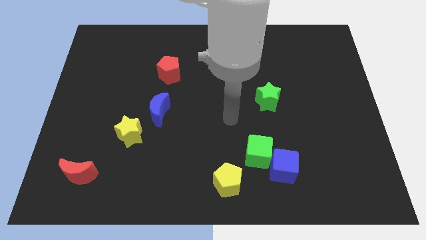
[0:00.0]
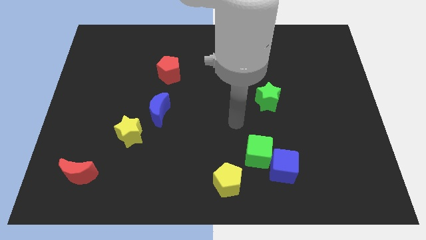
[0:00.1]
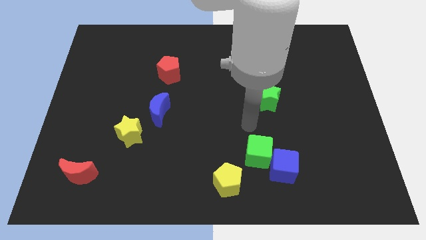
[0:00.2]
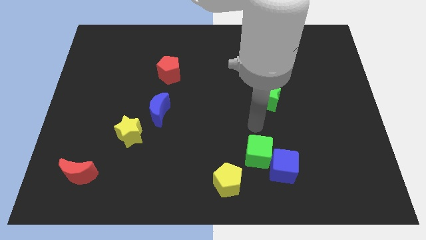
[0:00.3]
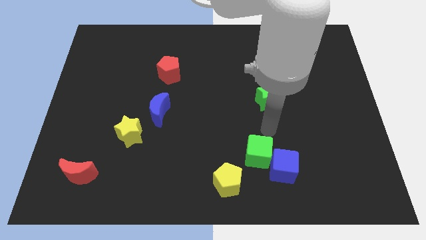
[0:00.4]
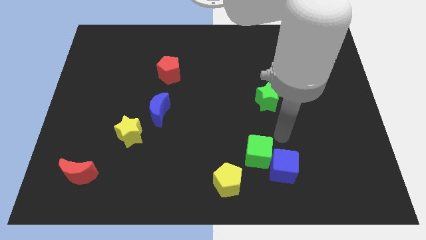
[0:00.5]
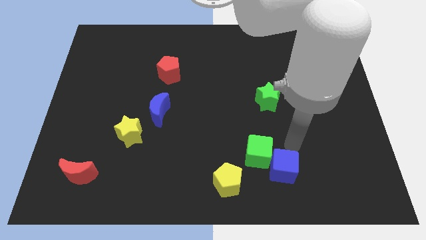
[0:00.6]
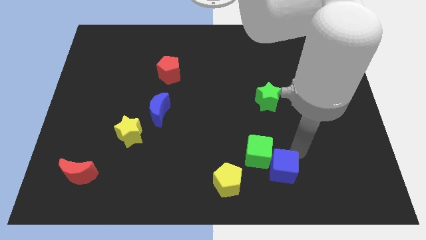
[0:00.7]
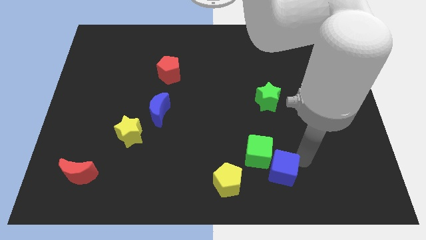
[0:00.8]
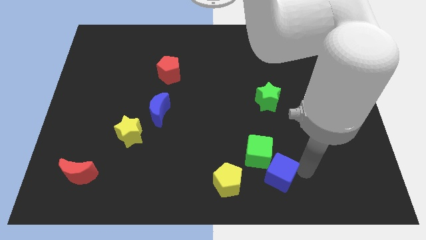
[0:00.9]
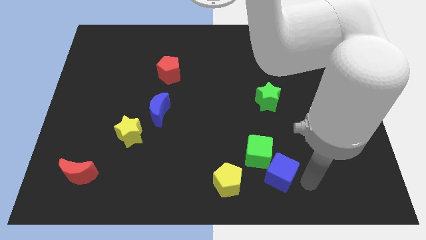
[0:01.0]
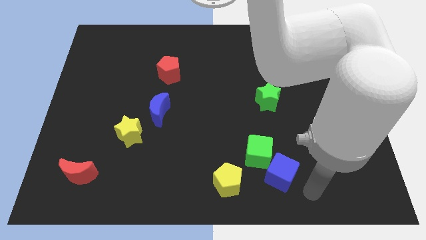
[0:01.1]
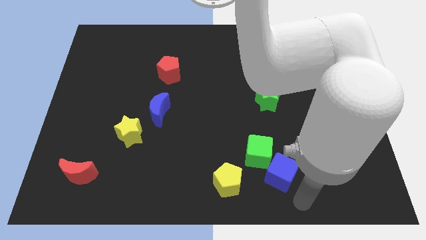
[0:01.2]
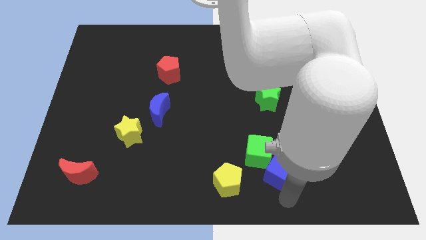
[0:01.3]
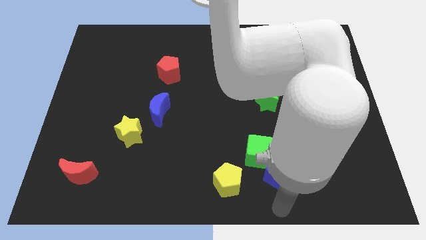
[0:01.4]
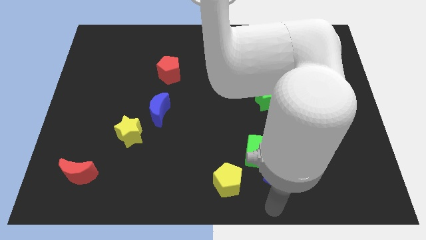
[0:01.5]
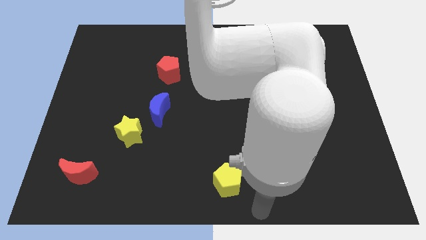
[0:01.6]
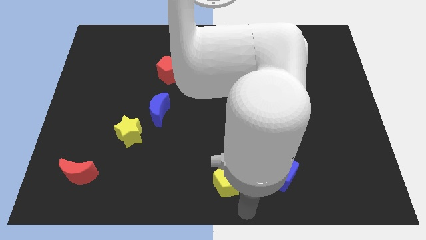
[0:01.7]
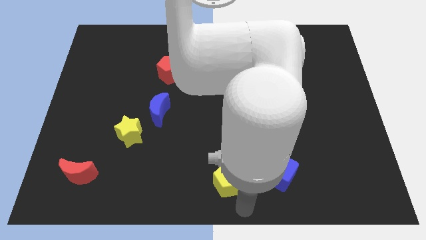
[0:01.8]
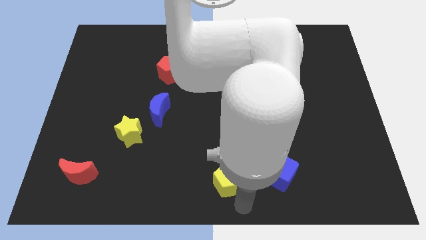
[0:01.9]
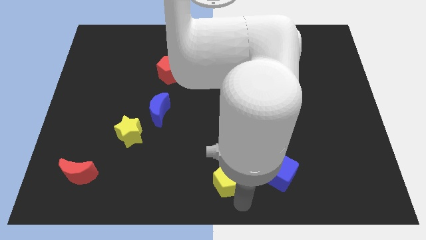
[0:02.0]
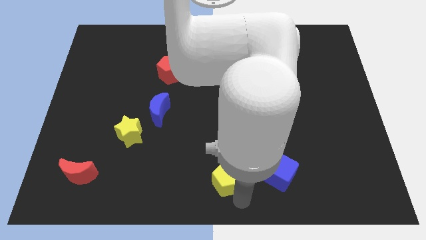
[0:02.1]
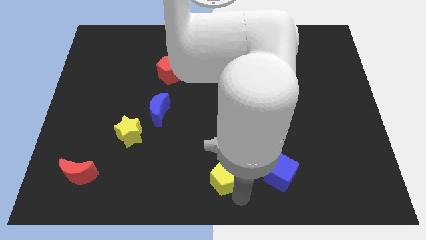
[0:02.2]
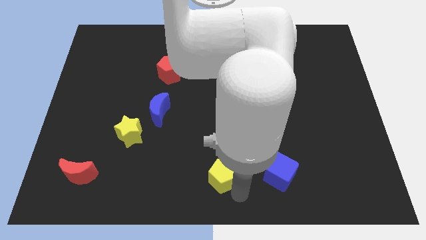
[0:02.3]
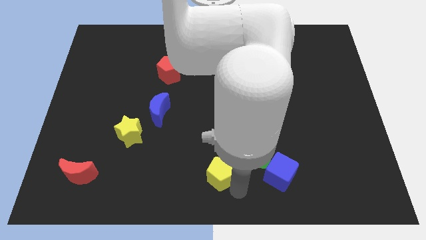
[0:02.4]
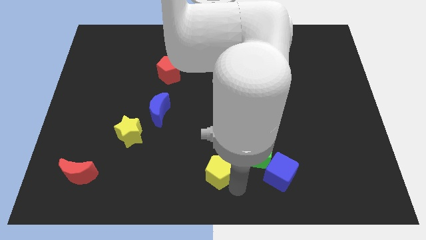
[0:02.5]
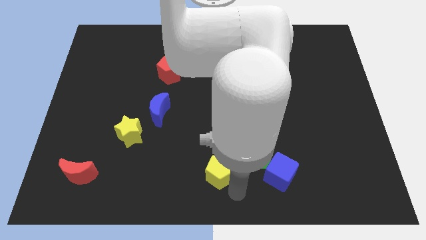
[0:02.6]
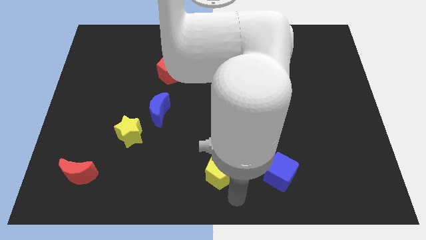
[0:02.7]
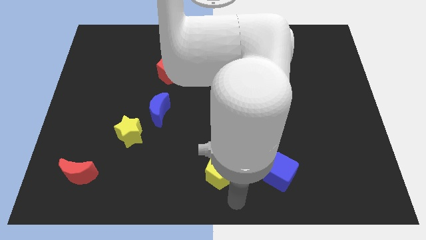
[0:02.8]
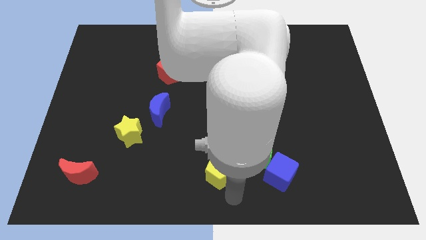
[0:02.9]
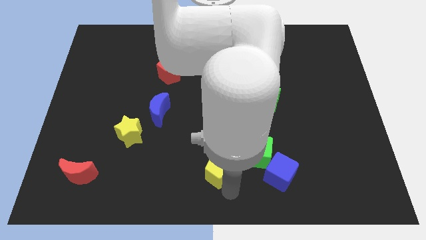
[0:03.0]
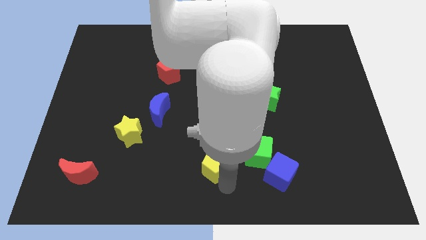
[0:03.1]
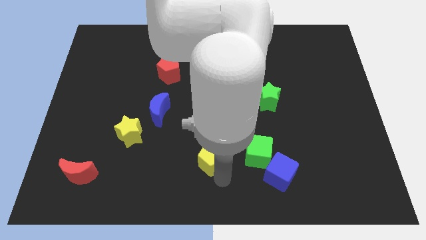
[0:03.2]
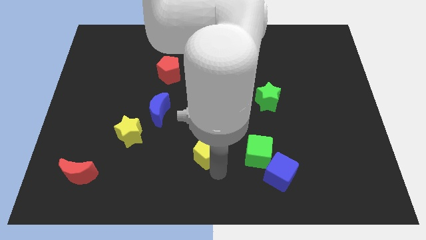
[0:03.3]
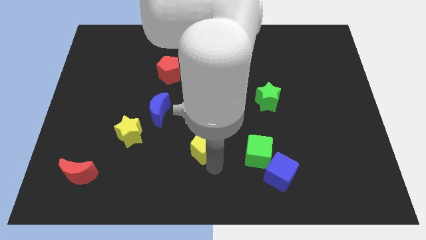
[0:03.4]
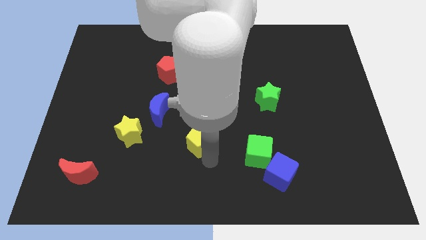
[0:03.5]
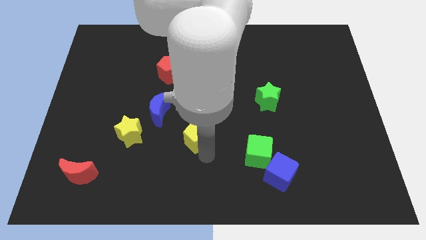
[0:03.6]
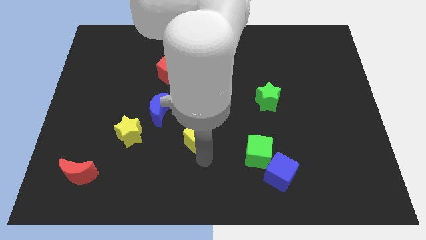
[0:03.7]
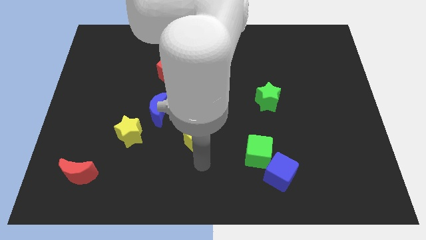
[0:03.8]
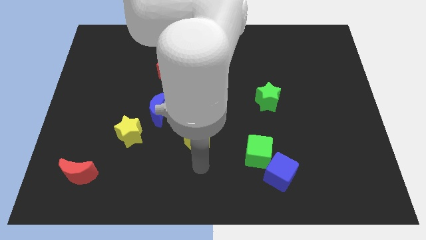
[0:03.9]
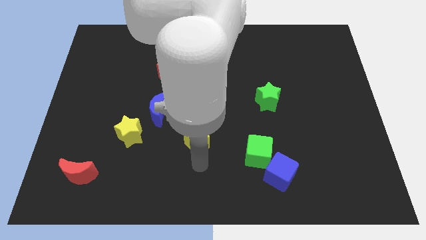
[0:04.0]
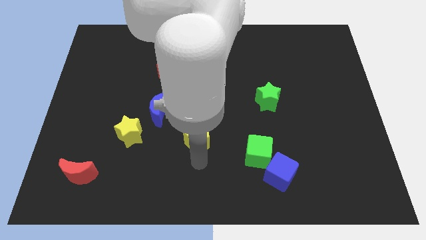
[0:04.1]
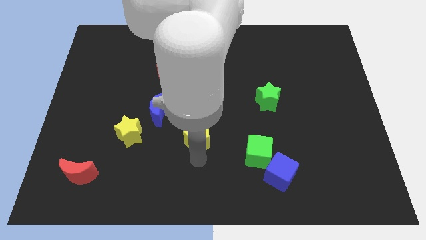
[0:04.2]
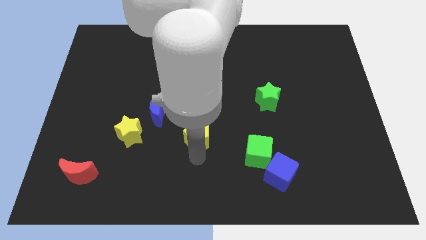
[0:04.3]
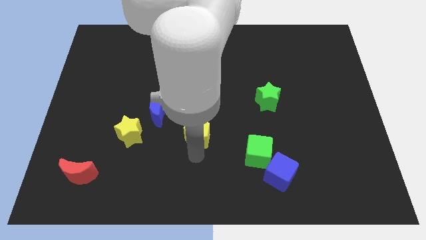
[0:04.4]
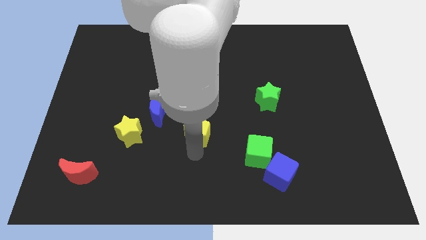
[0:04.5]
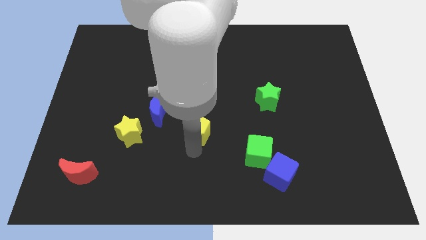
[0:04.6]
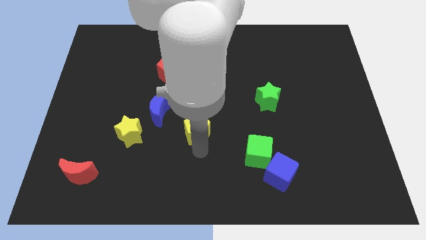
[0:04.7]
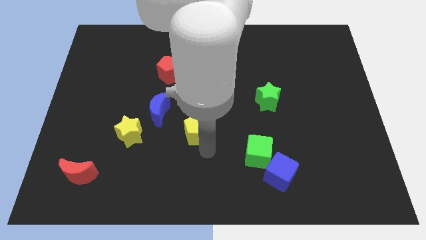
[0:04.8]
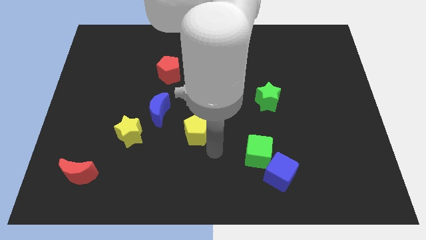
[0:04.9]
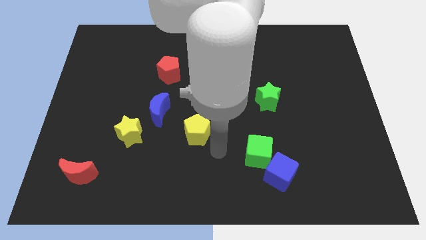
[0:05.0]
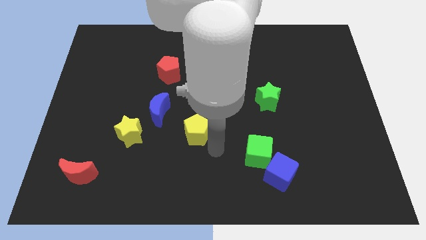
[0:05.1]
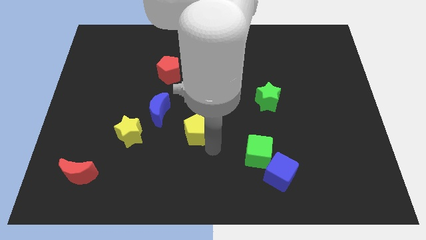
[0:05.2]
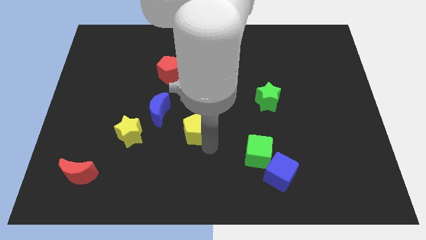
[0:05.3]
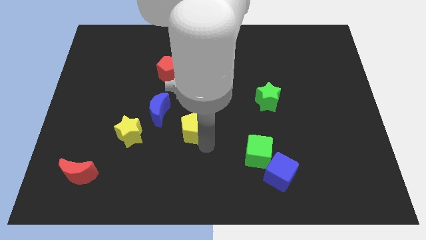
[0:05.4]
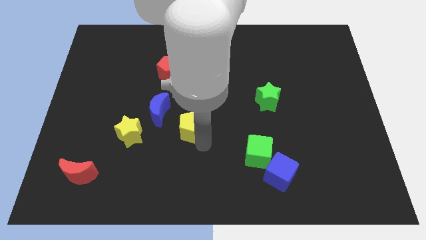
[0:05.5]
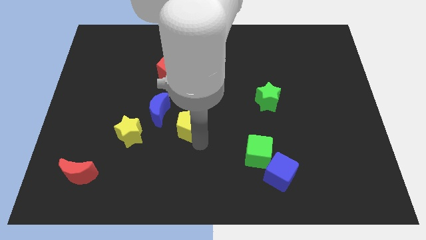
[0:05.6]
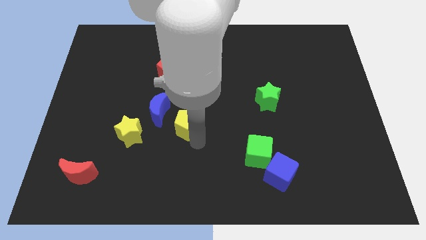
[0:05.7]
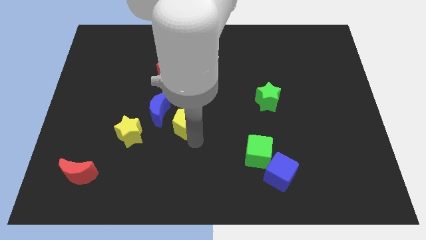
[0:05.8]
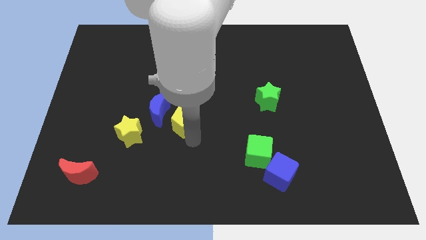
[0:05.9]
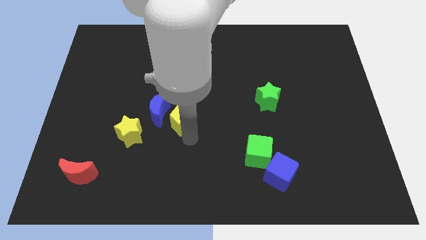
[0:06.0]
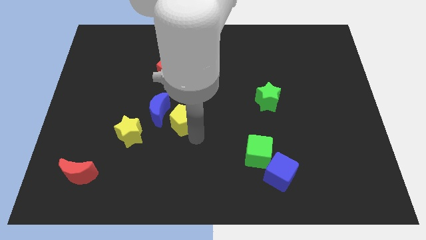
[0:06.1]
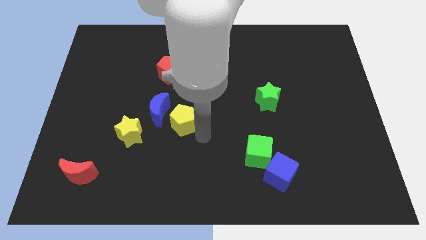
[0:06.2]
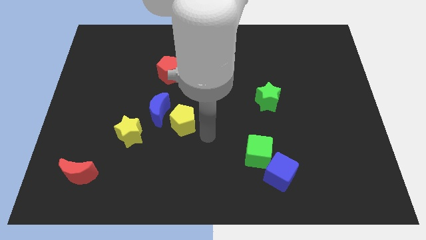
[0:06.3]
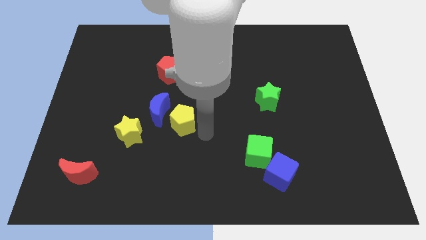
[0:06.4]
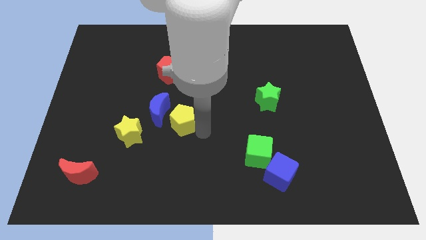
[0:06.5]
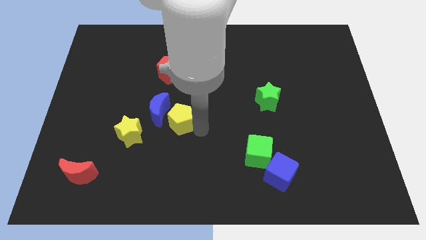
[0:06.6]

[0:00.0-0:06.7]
move the yellow pentagon towards the blue moon

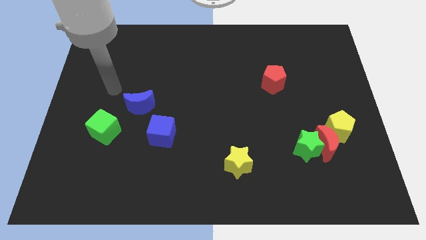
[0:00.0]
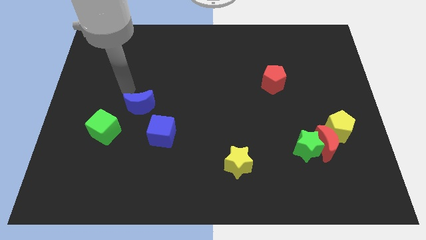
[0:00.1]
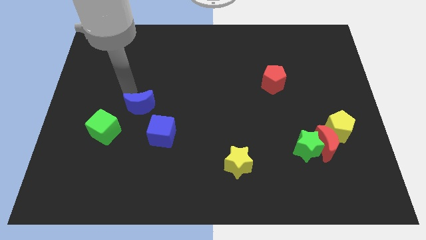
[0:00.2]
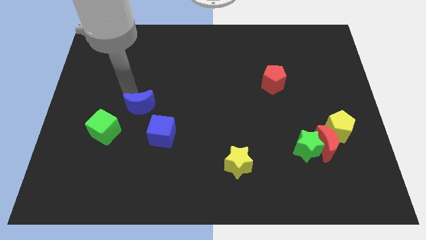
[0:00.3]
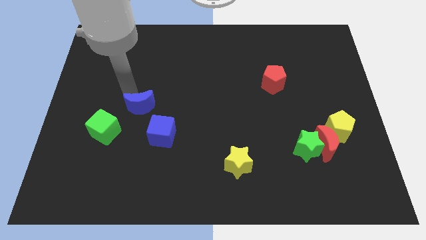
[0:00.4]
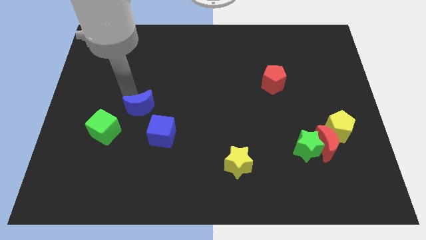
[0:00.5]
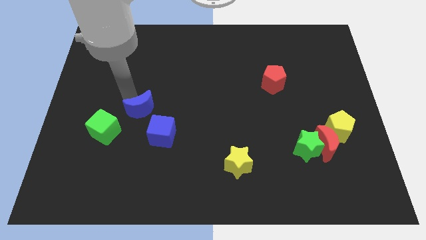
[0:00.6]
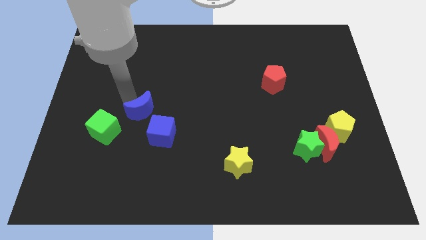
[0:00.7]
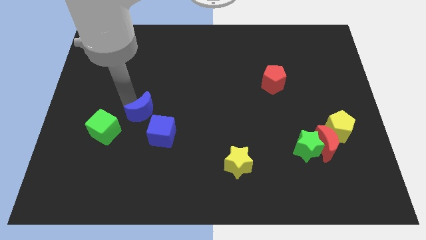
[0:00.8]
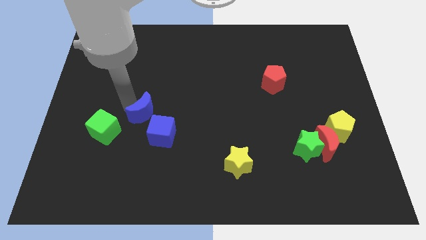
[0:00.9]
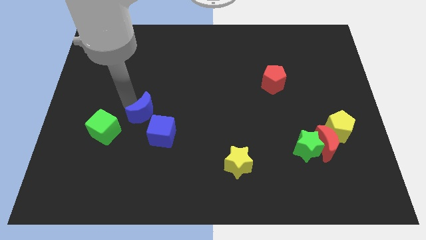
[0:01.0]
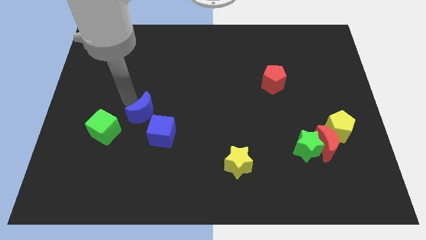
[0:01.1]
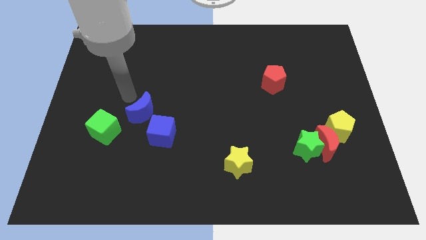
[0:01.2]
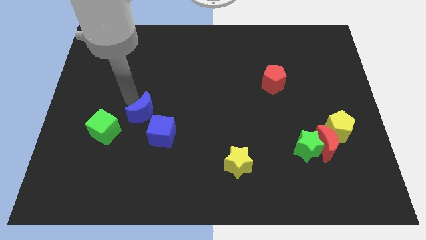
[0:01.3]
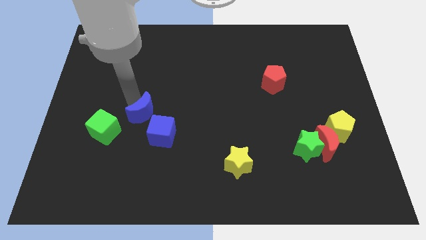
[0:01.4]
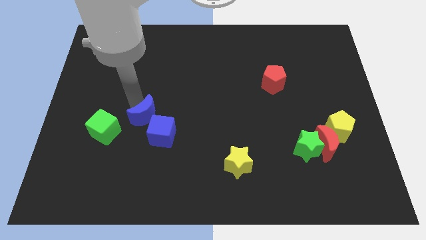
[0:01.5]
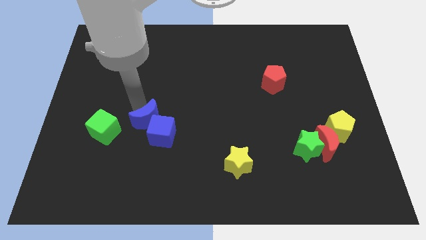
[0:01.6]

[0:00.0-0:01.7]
push the blue moon towards the blue cube
